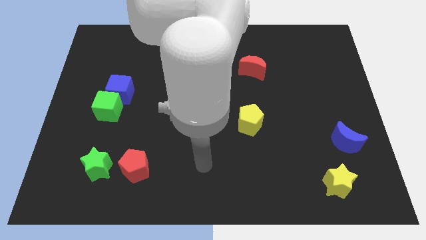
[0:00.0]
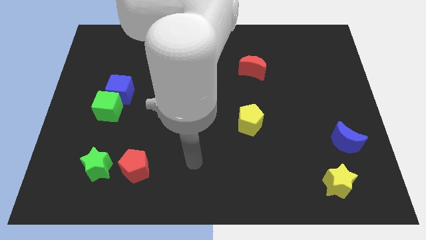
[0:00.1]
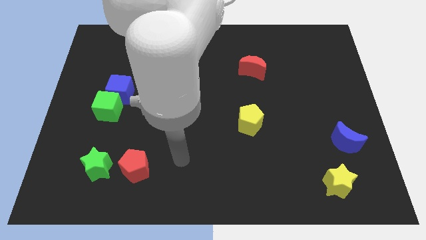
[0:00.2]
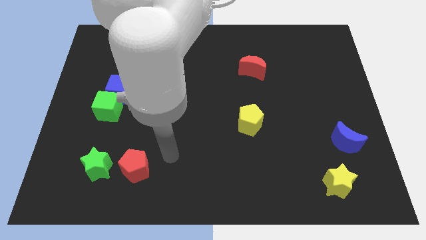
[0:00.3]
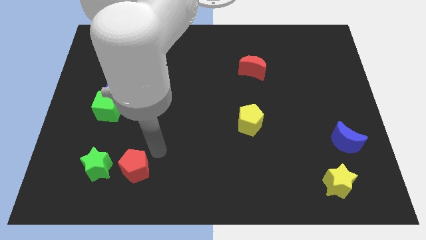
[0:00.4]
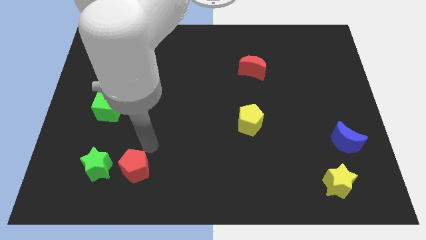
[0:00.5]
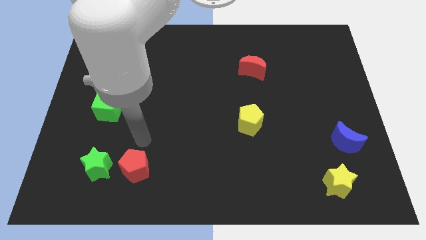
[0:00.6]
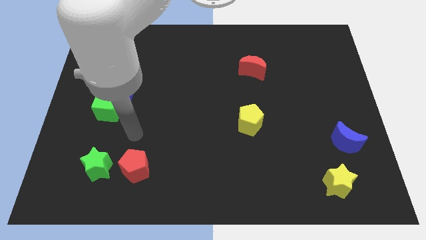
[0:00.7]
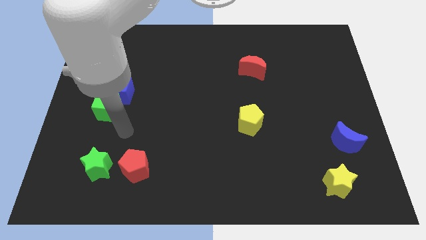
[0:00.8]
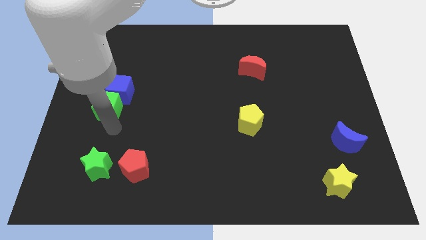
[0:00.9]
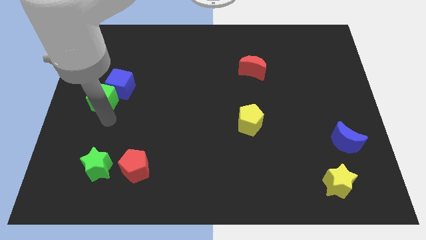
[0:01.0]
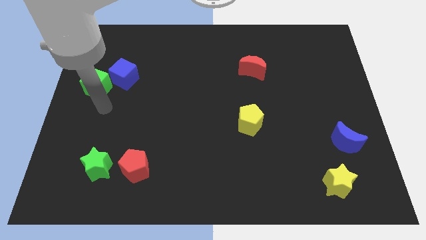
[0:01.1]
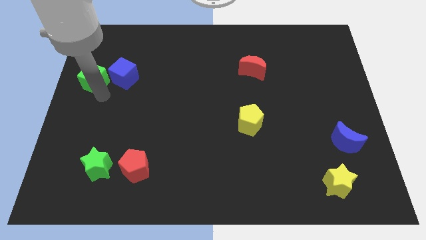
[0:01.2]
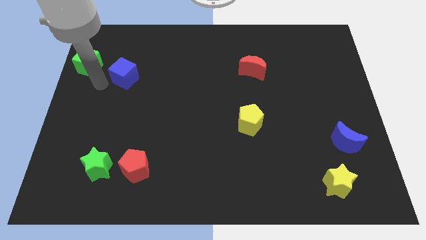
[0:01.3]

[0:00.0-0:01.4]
pull the blue cube apart from the green cube

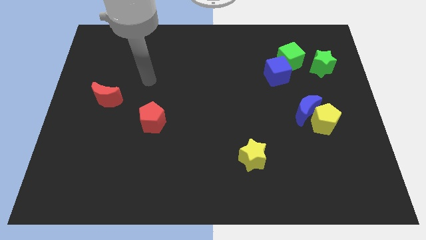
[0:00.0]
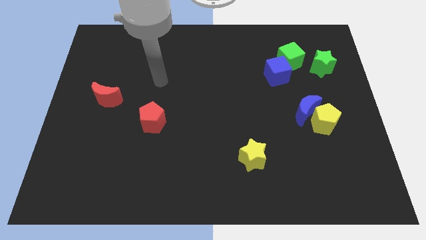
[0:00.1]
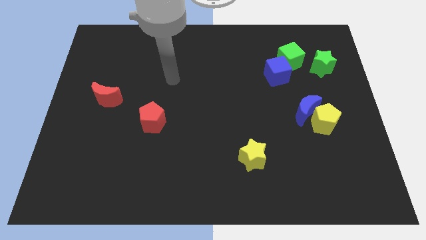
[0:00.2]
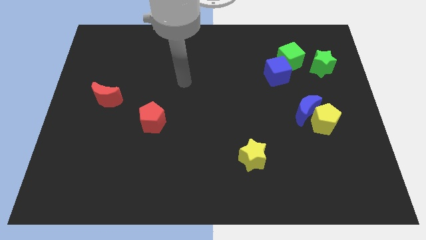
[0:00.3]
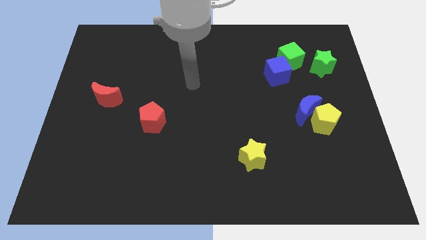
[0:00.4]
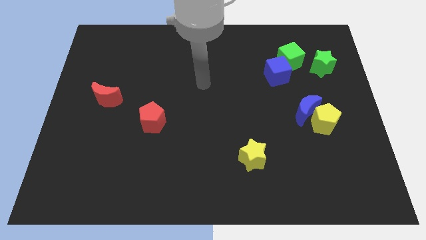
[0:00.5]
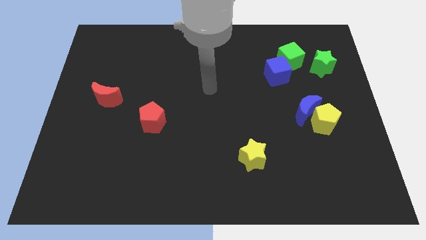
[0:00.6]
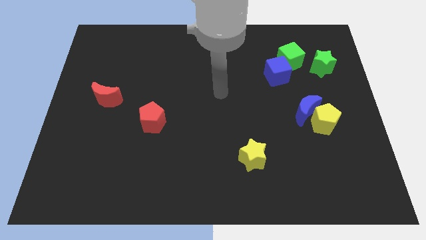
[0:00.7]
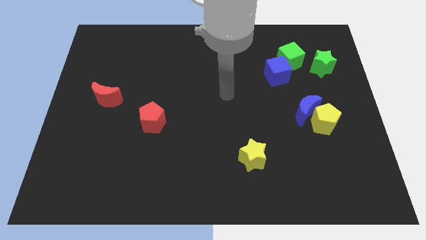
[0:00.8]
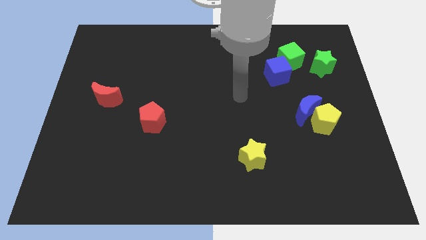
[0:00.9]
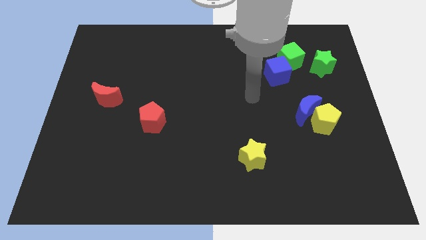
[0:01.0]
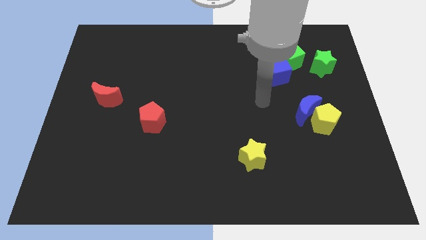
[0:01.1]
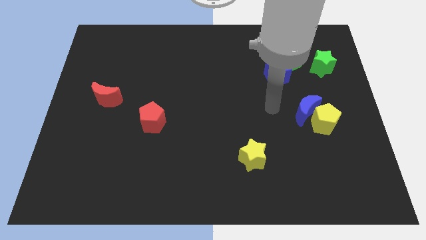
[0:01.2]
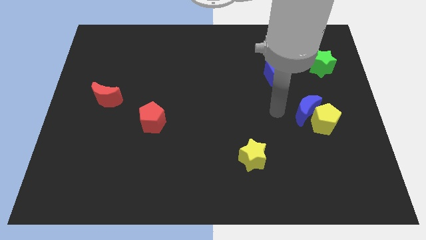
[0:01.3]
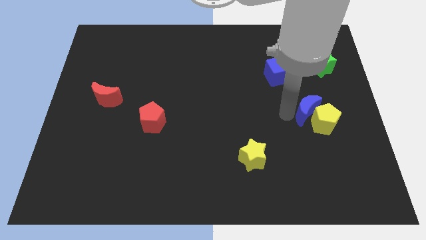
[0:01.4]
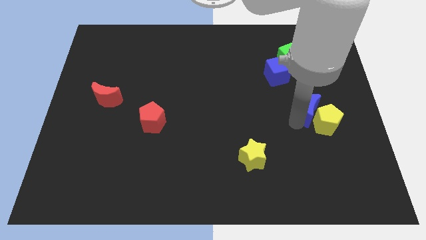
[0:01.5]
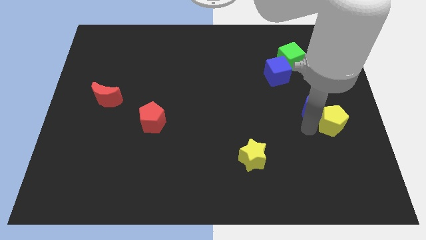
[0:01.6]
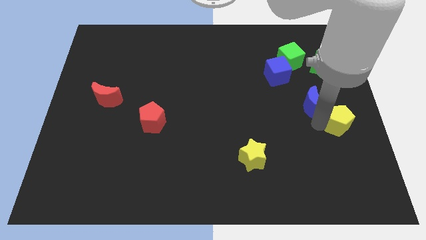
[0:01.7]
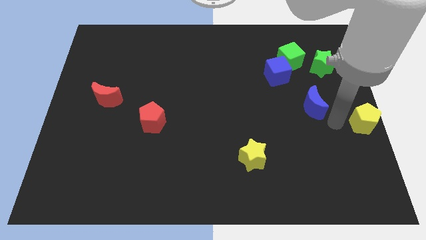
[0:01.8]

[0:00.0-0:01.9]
move the blue moon away from the yellow pentagon

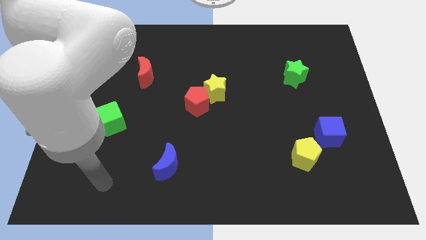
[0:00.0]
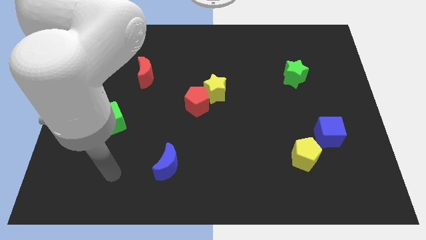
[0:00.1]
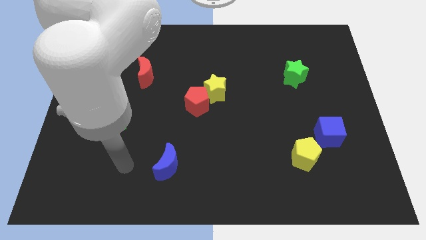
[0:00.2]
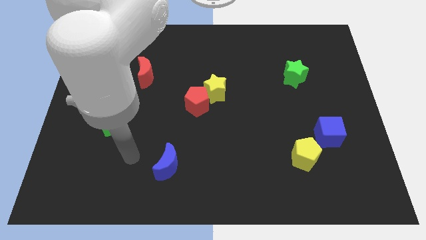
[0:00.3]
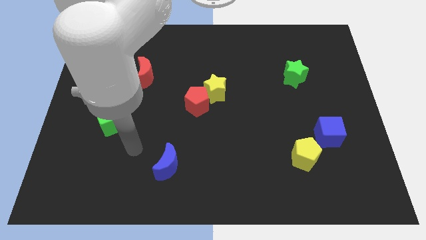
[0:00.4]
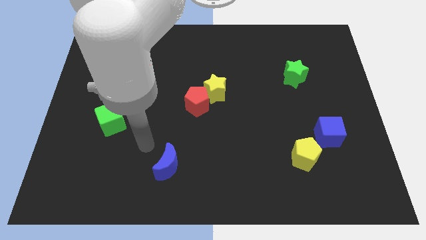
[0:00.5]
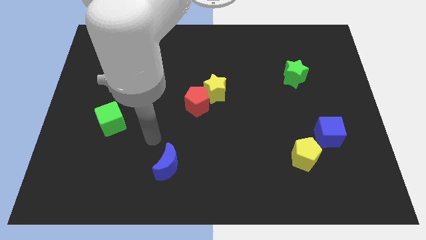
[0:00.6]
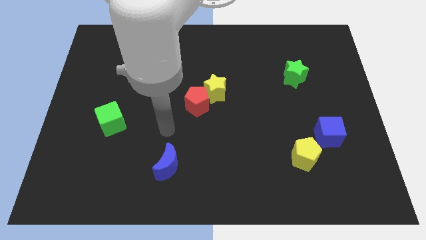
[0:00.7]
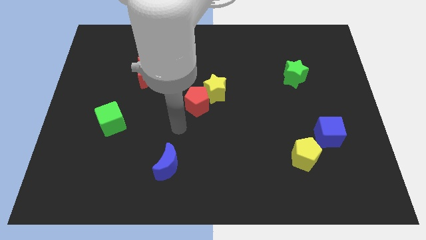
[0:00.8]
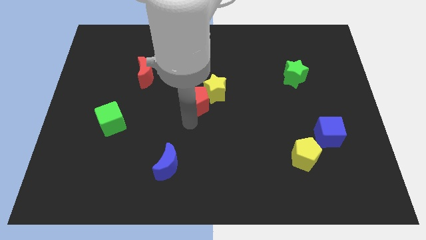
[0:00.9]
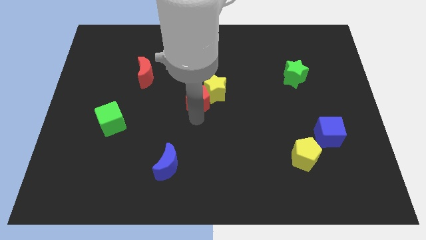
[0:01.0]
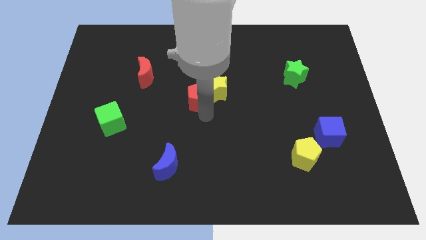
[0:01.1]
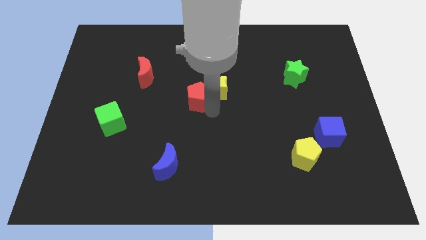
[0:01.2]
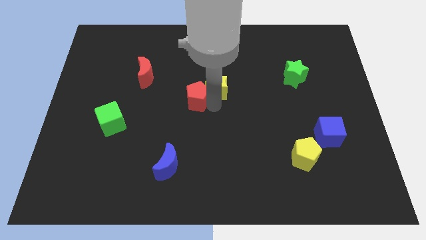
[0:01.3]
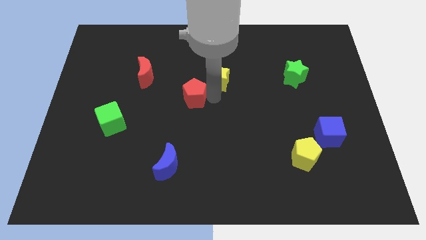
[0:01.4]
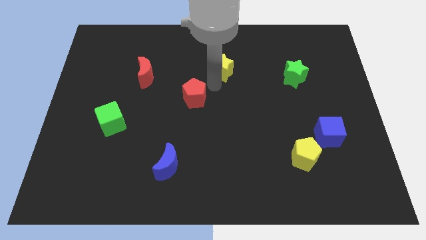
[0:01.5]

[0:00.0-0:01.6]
move the red pentagon away from the yellow star

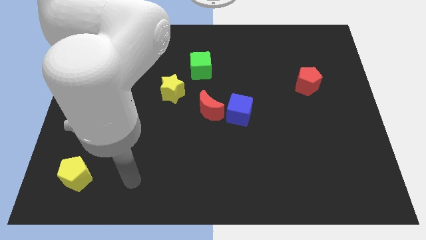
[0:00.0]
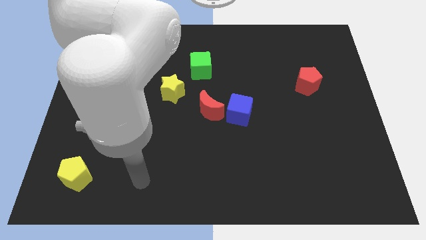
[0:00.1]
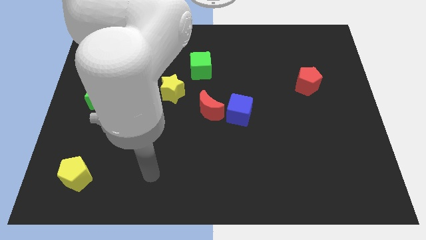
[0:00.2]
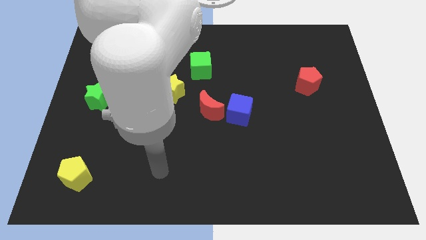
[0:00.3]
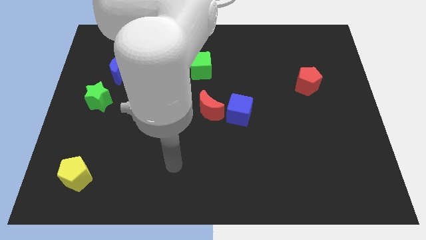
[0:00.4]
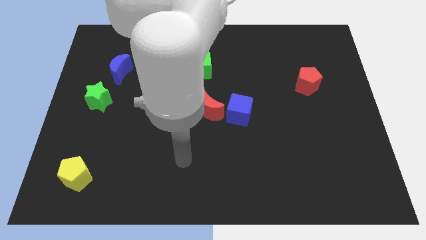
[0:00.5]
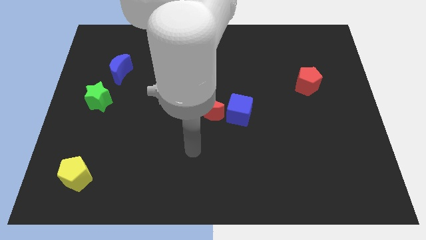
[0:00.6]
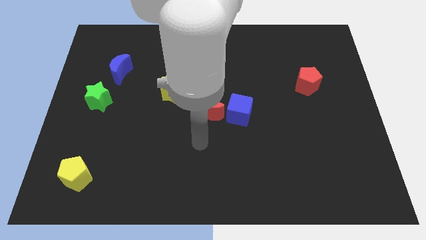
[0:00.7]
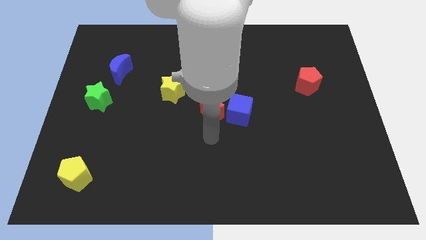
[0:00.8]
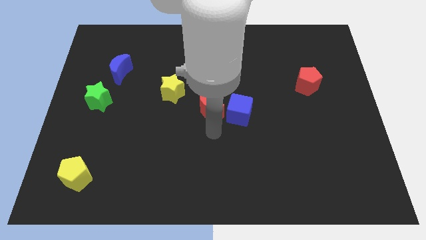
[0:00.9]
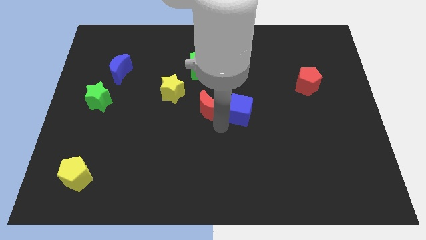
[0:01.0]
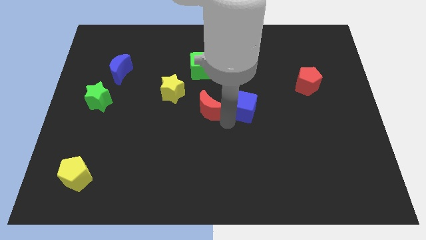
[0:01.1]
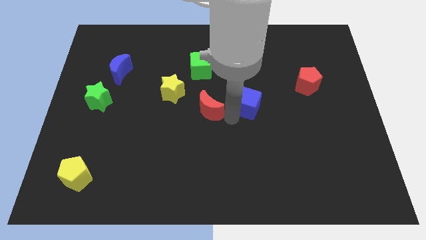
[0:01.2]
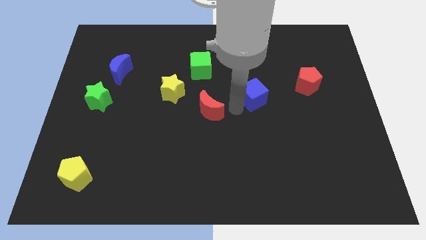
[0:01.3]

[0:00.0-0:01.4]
separate the red moon from the blue cube

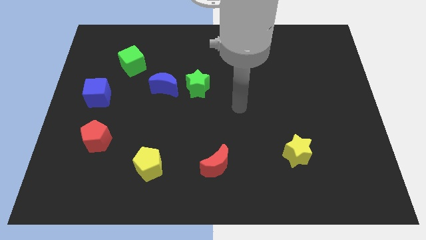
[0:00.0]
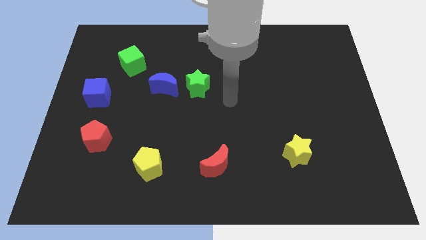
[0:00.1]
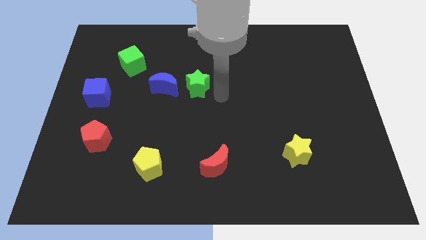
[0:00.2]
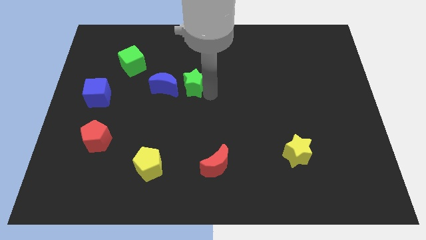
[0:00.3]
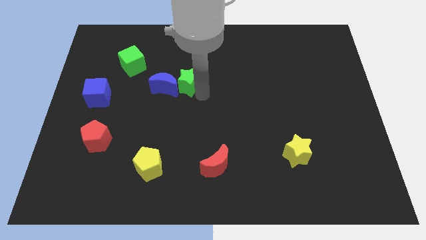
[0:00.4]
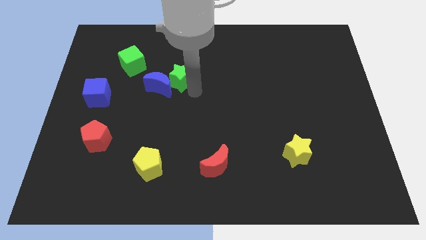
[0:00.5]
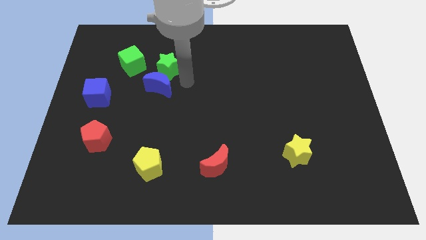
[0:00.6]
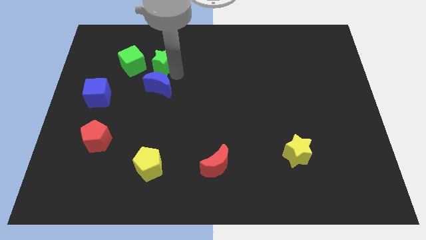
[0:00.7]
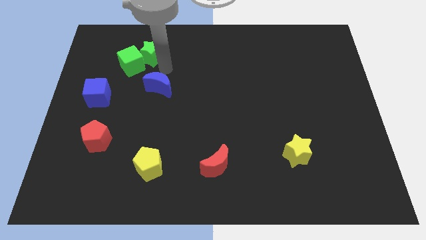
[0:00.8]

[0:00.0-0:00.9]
separate the blue moon from the green star

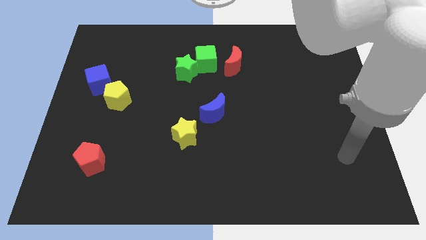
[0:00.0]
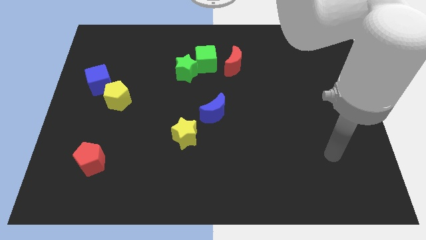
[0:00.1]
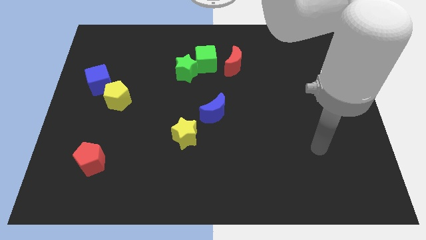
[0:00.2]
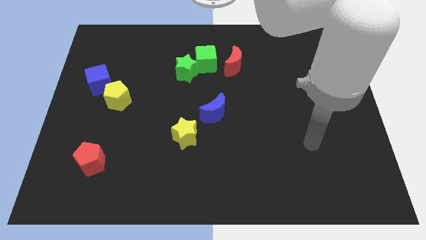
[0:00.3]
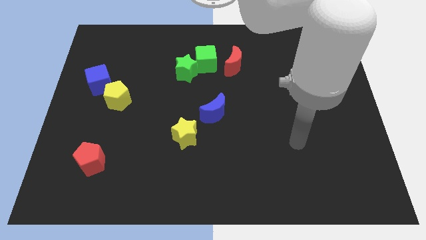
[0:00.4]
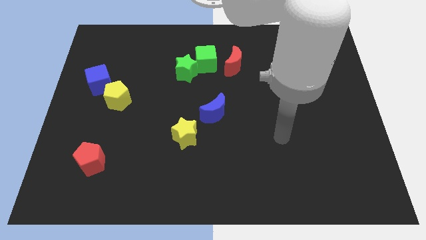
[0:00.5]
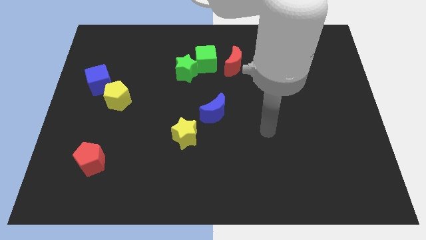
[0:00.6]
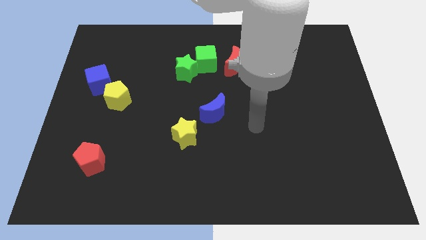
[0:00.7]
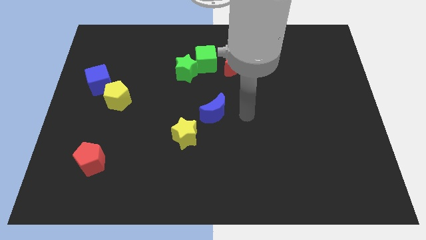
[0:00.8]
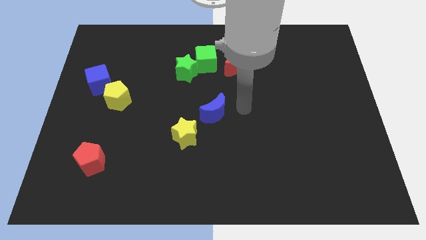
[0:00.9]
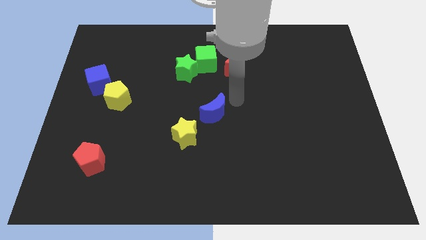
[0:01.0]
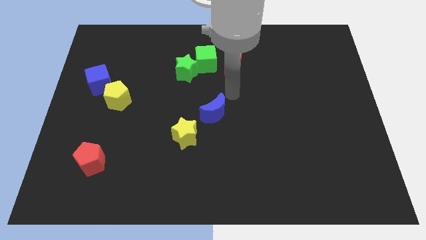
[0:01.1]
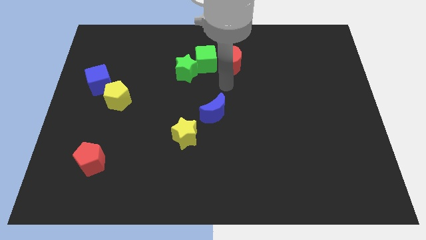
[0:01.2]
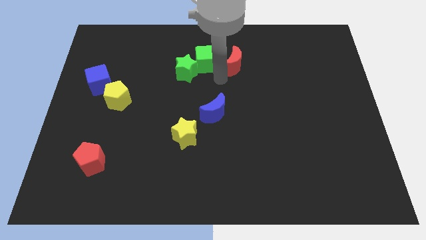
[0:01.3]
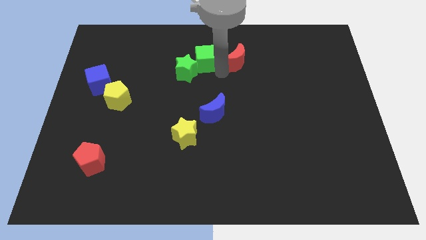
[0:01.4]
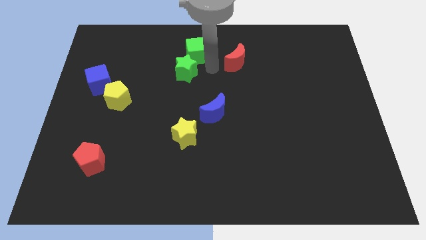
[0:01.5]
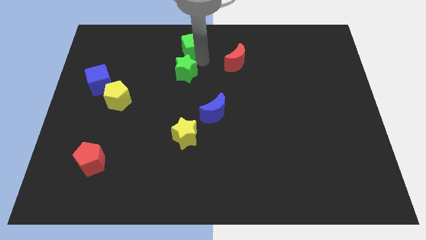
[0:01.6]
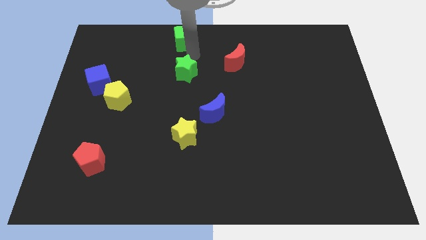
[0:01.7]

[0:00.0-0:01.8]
pull the green star apart from the green cube

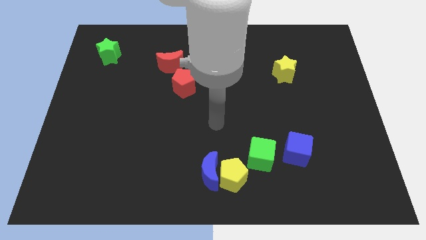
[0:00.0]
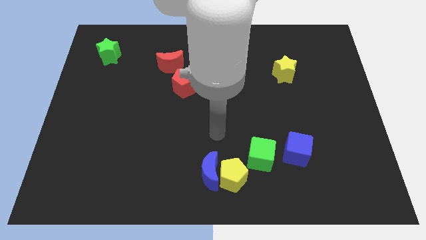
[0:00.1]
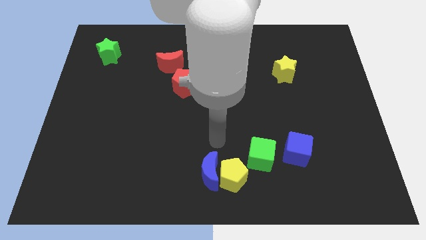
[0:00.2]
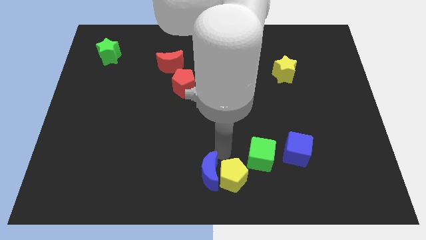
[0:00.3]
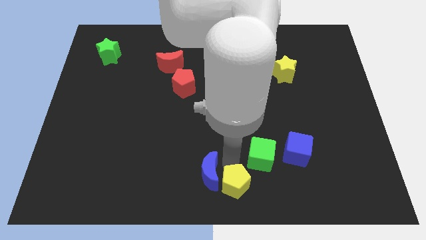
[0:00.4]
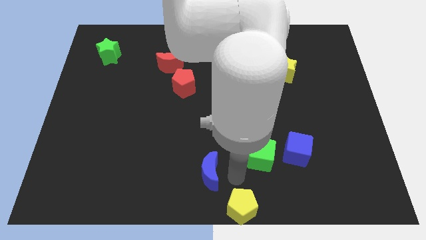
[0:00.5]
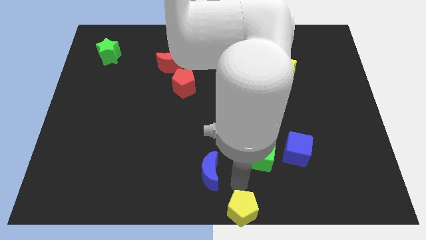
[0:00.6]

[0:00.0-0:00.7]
pull the blue moon apart from the yellow pentagon
